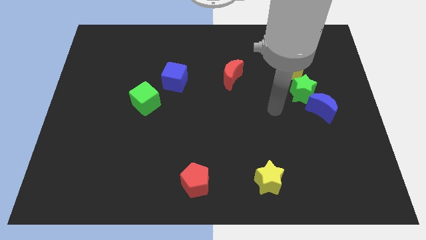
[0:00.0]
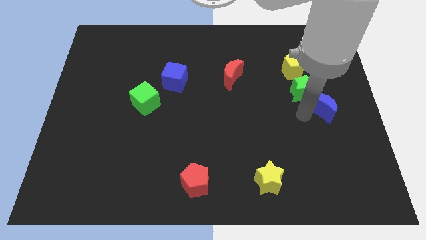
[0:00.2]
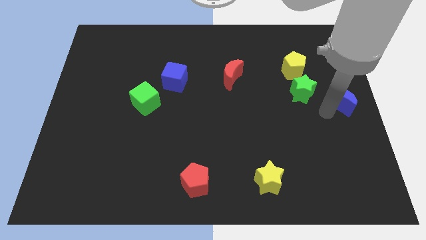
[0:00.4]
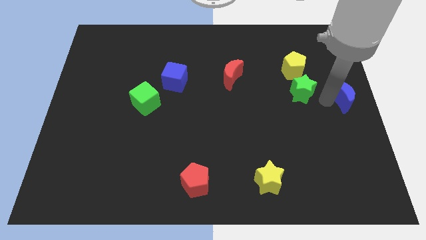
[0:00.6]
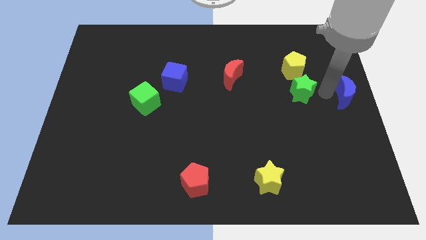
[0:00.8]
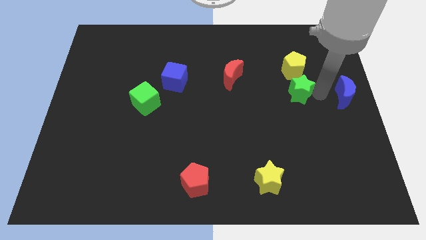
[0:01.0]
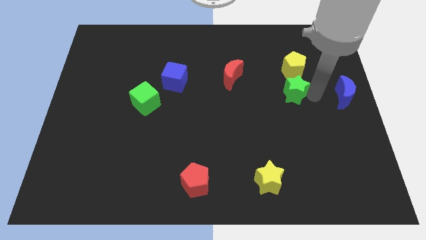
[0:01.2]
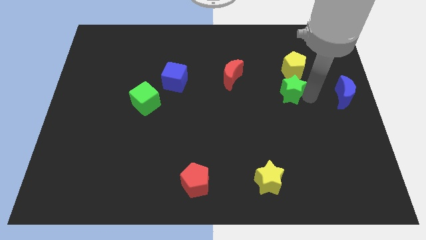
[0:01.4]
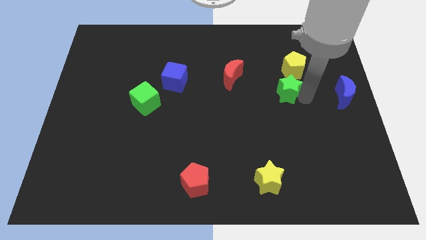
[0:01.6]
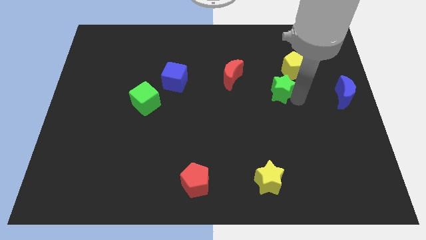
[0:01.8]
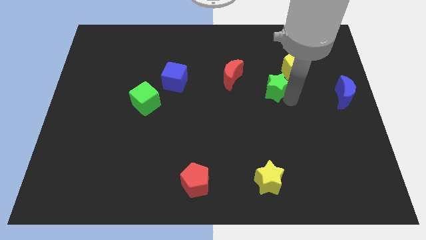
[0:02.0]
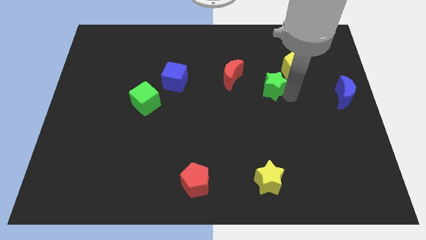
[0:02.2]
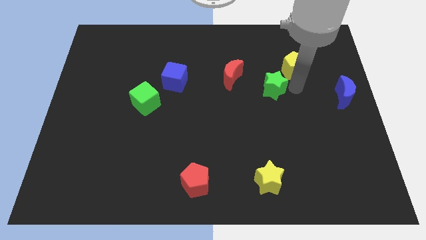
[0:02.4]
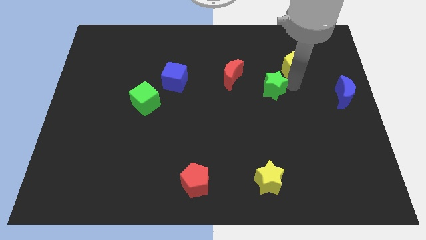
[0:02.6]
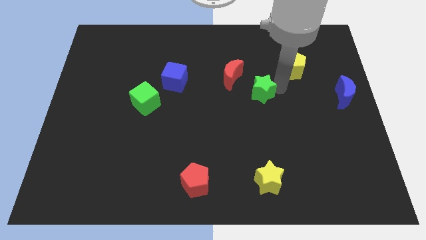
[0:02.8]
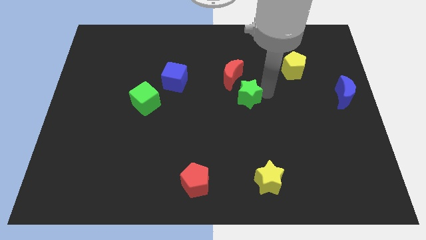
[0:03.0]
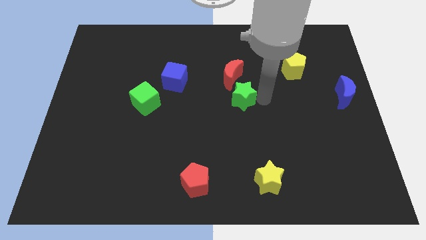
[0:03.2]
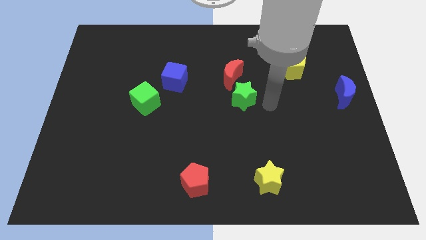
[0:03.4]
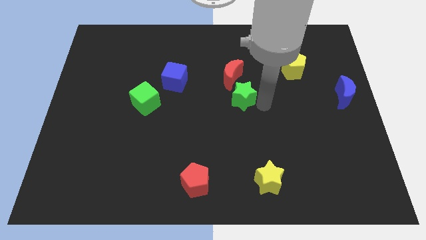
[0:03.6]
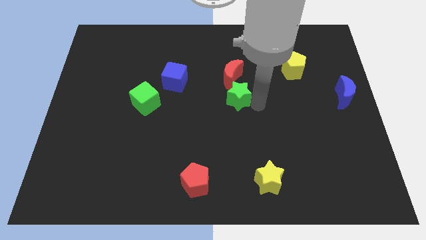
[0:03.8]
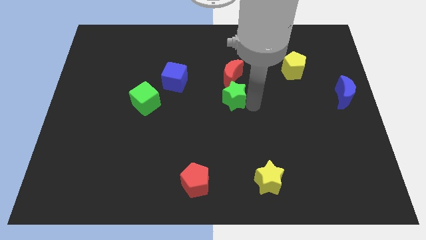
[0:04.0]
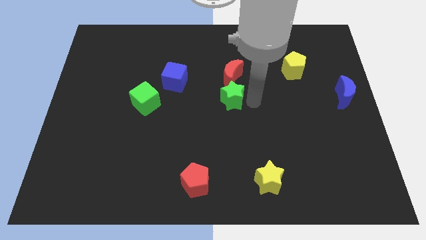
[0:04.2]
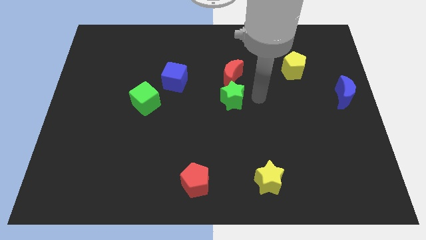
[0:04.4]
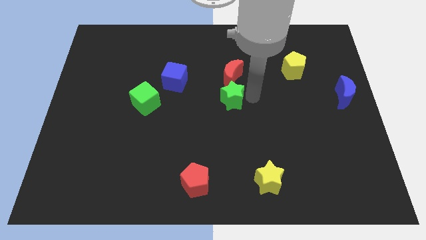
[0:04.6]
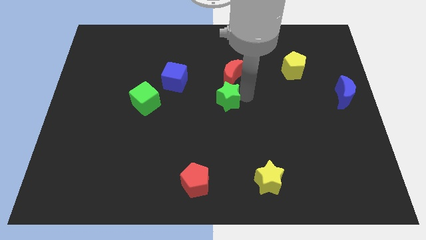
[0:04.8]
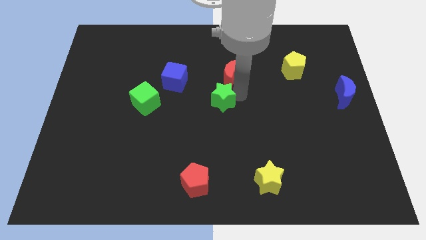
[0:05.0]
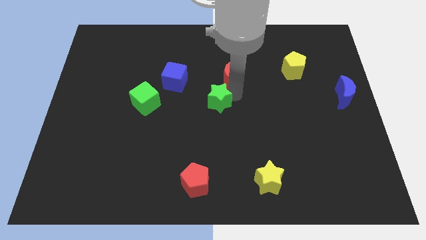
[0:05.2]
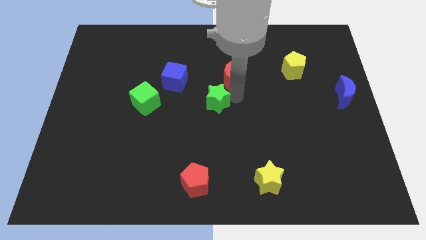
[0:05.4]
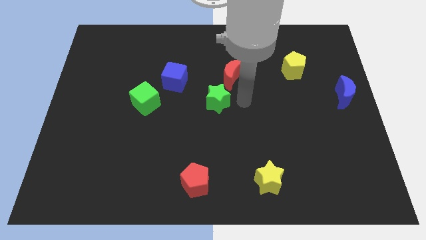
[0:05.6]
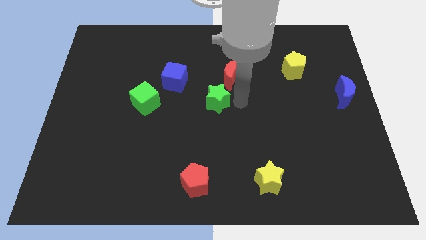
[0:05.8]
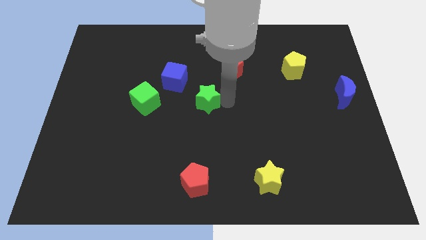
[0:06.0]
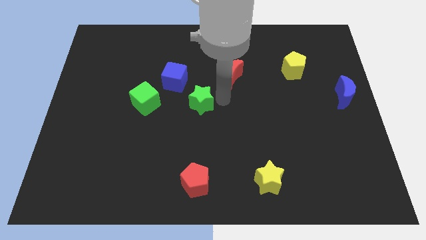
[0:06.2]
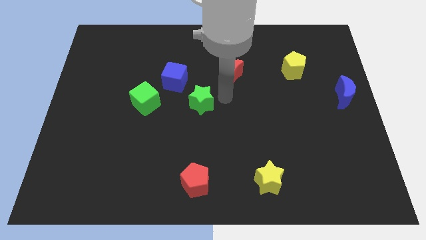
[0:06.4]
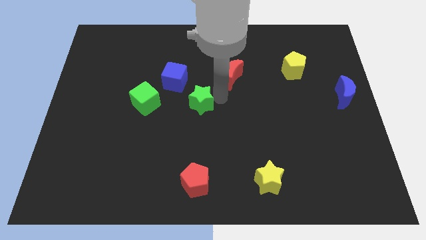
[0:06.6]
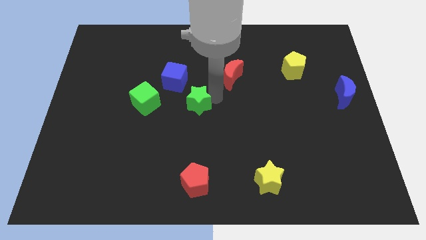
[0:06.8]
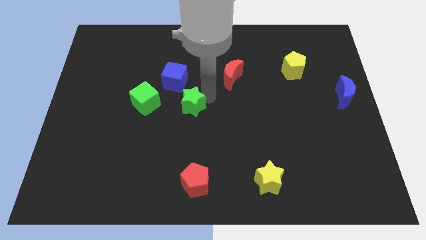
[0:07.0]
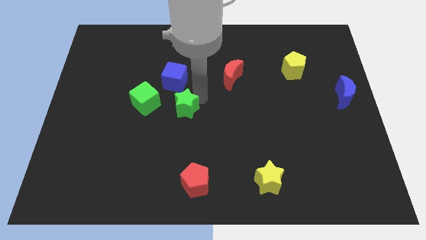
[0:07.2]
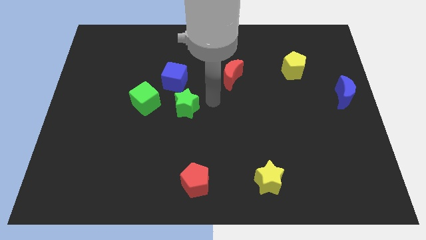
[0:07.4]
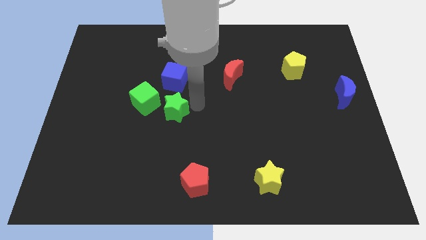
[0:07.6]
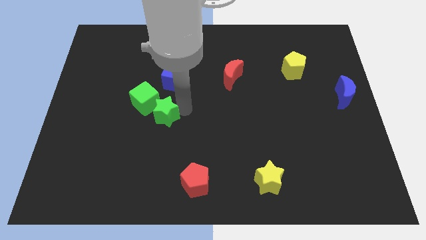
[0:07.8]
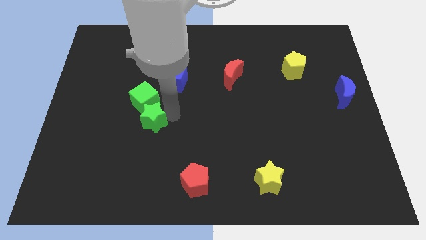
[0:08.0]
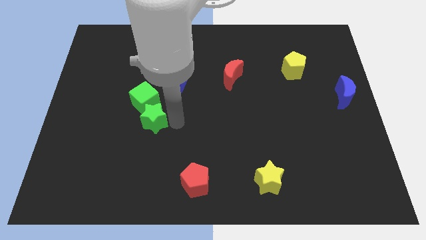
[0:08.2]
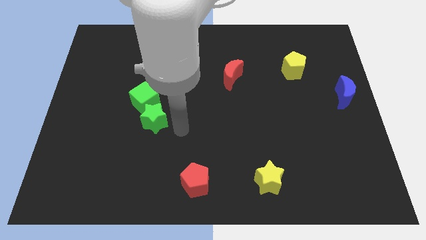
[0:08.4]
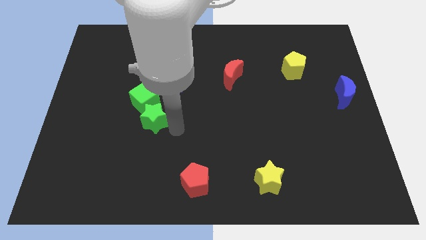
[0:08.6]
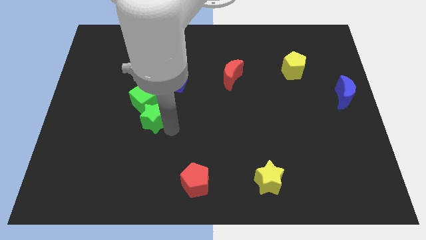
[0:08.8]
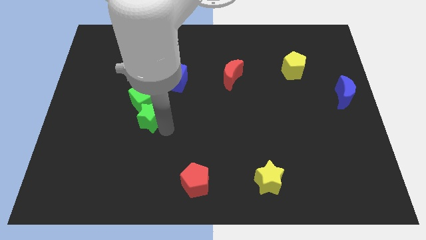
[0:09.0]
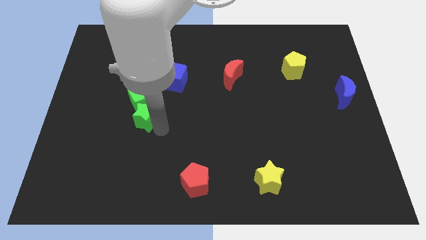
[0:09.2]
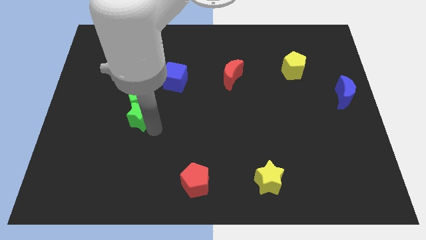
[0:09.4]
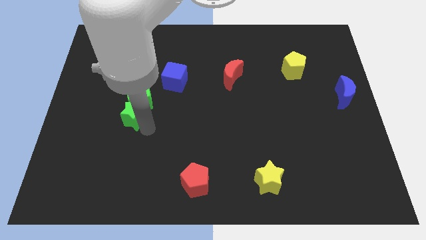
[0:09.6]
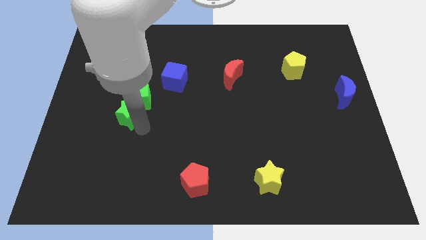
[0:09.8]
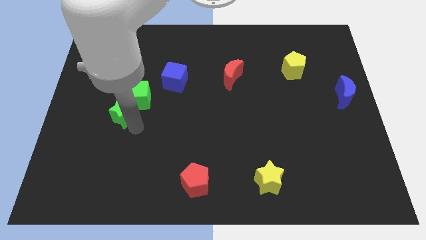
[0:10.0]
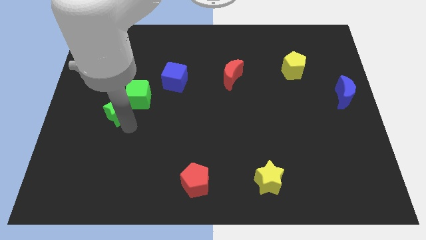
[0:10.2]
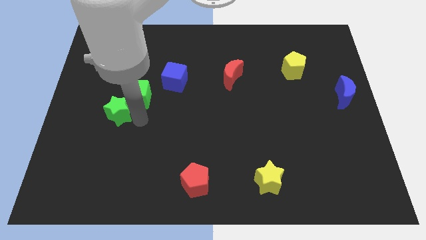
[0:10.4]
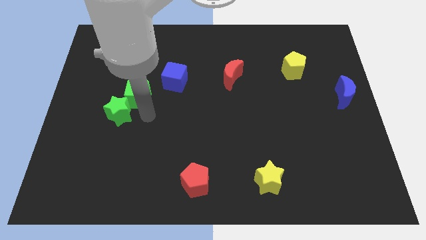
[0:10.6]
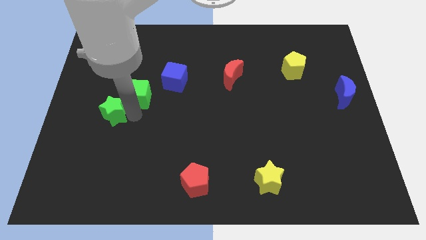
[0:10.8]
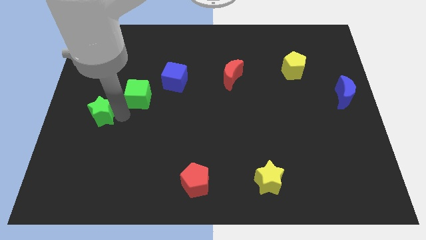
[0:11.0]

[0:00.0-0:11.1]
slide the green star to the center left
